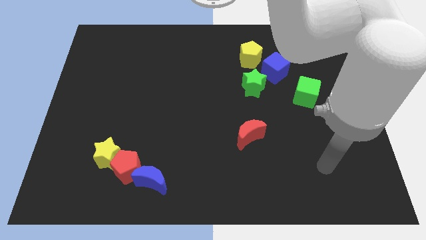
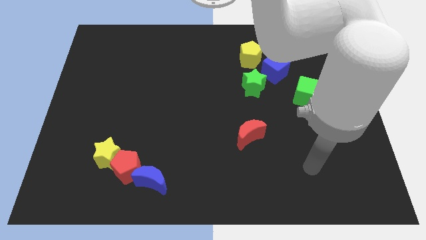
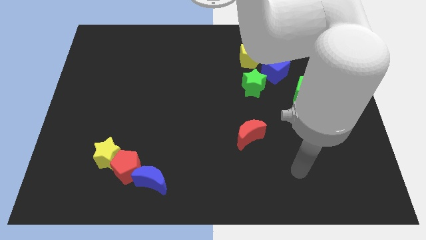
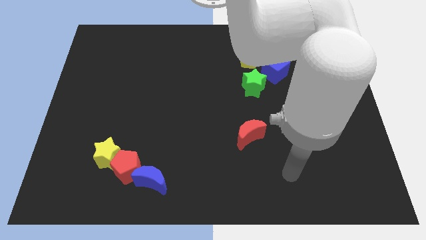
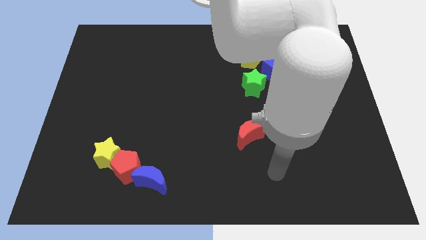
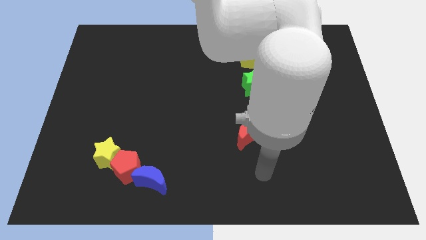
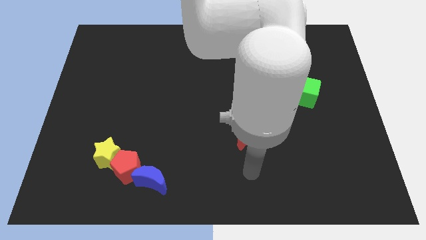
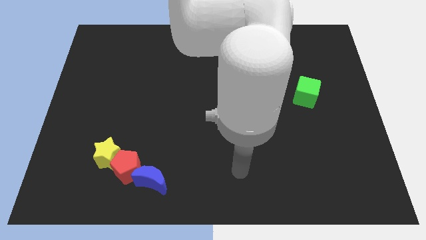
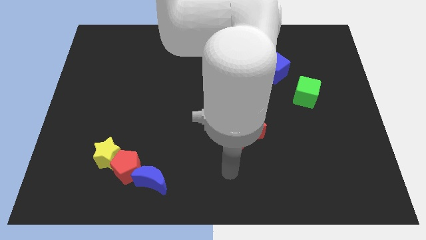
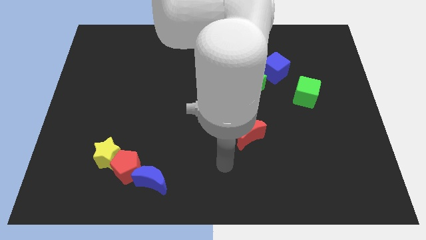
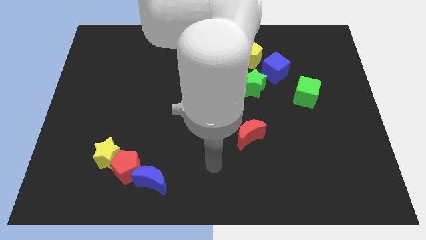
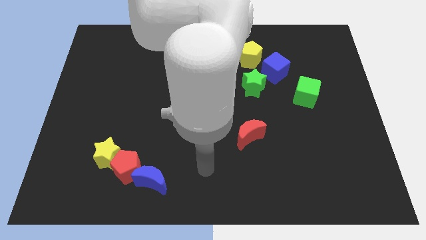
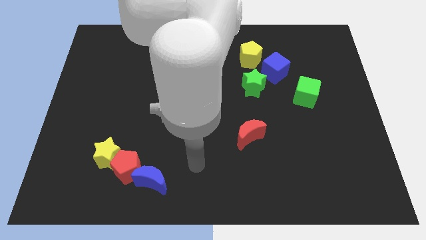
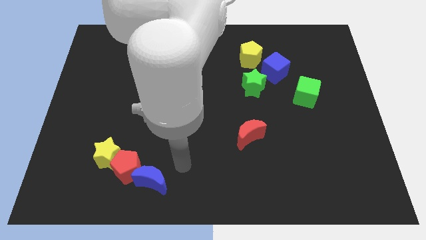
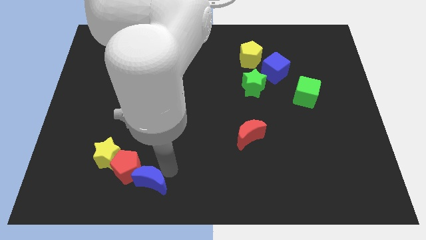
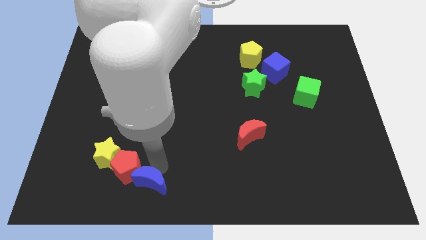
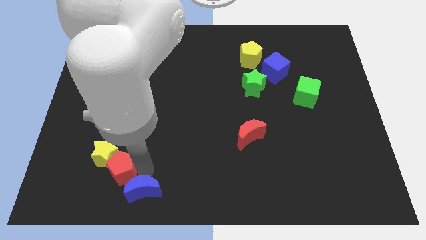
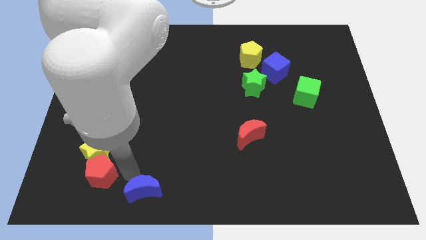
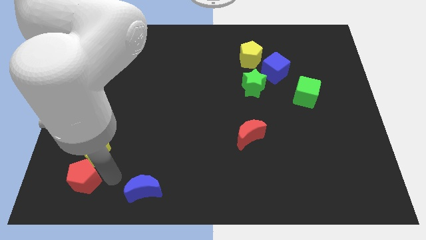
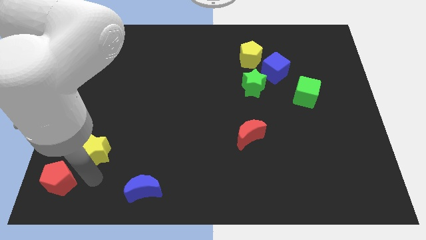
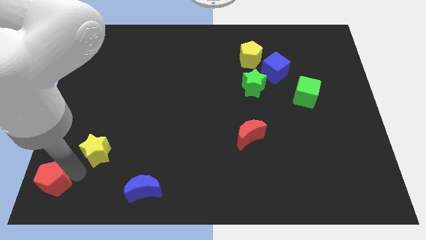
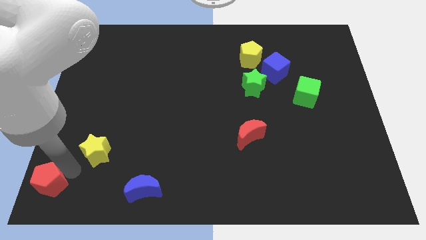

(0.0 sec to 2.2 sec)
move the yellow star away from the red pentagon

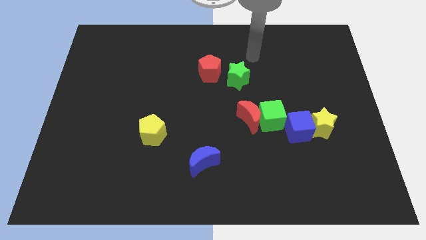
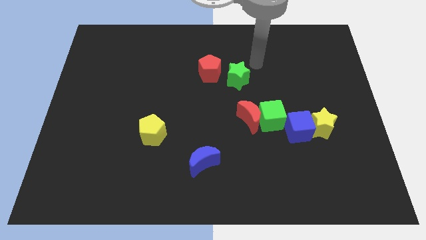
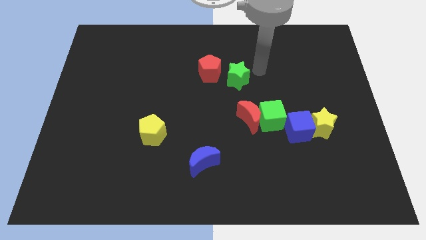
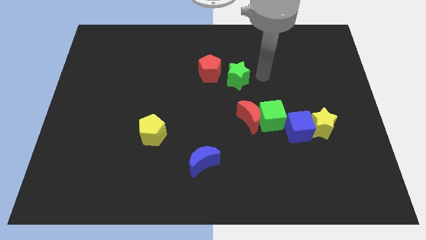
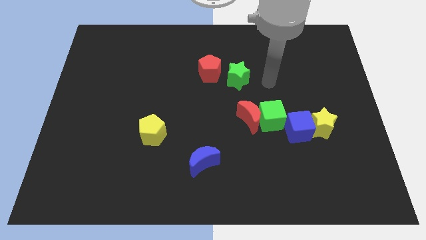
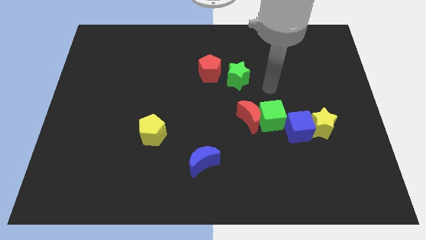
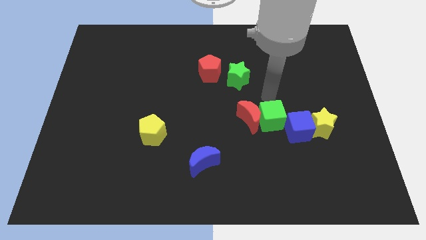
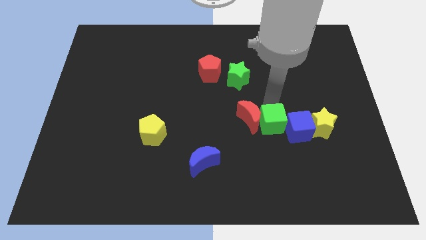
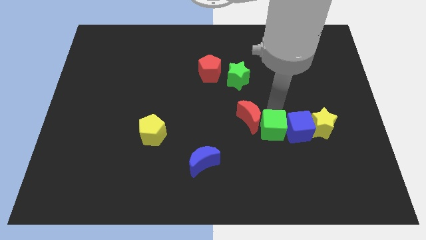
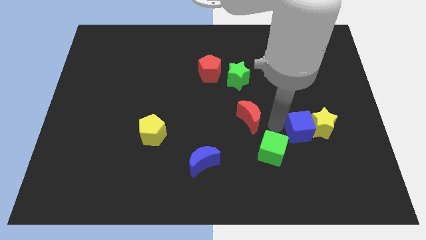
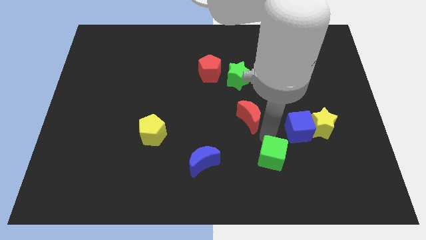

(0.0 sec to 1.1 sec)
separate the red moon from the green cube

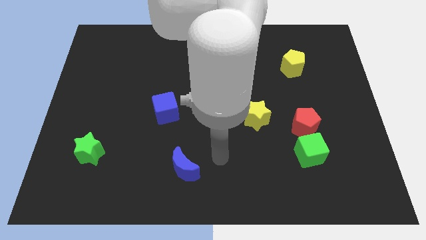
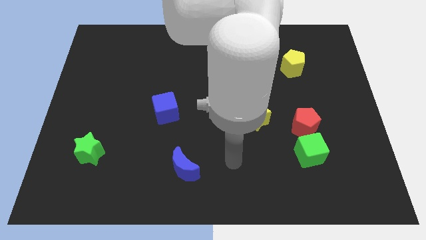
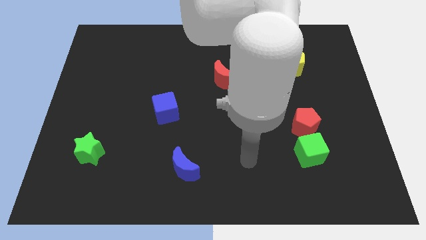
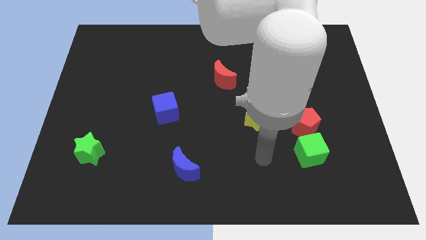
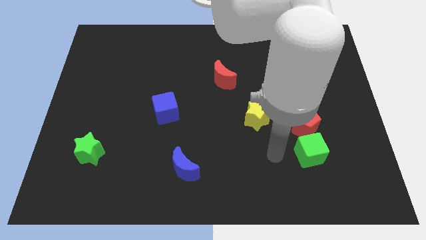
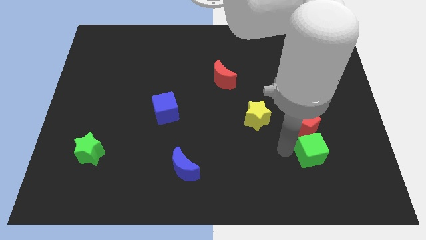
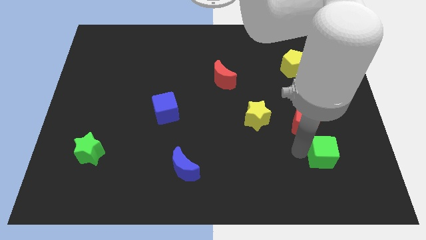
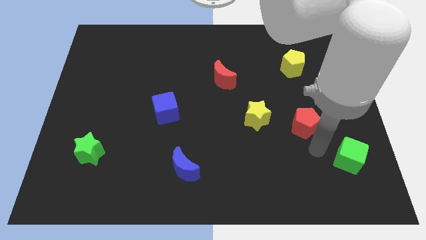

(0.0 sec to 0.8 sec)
separate the red pentagon from the green cube

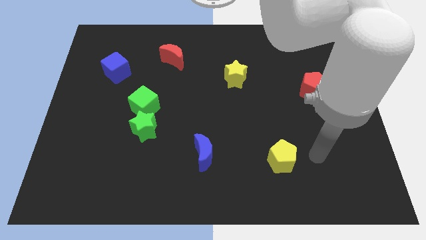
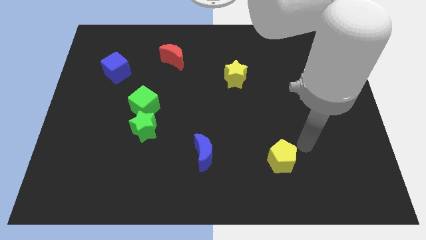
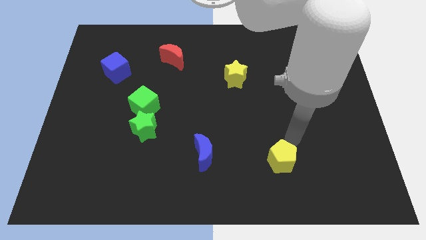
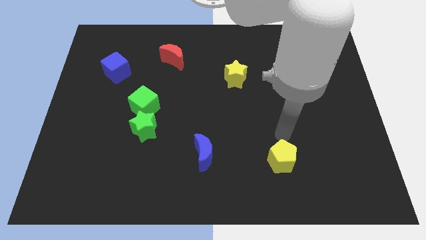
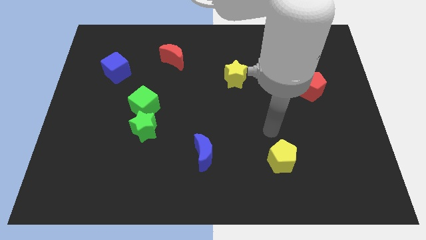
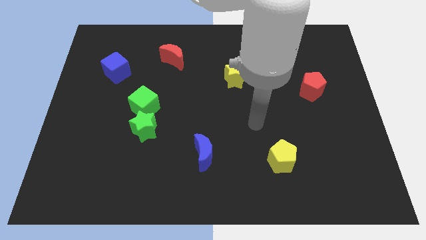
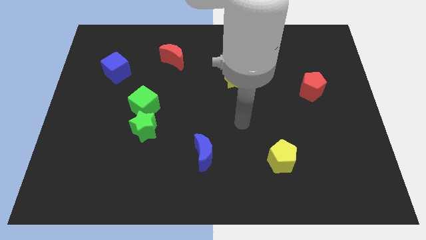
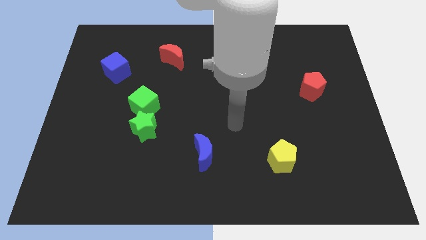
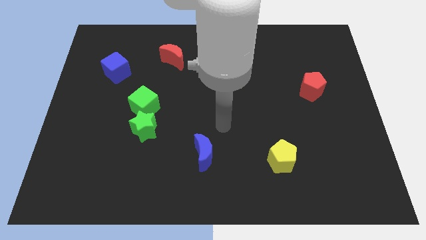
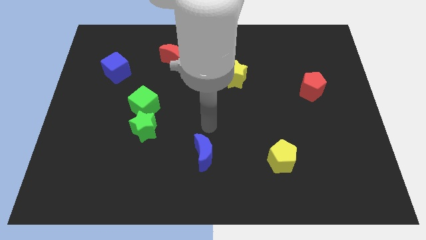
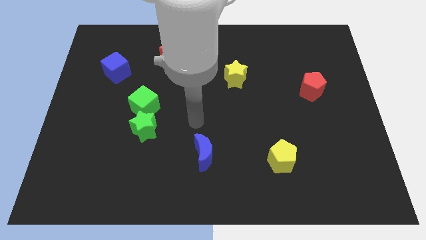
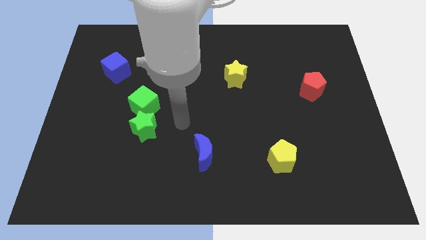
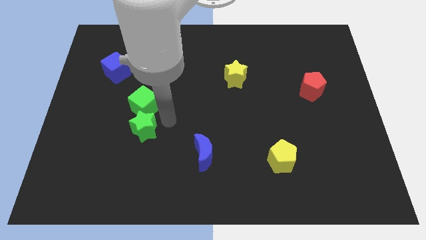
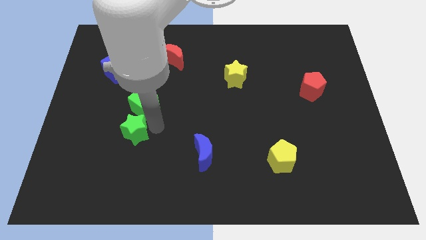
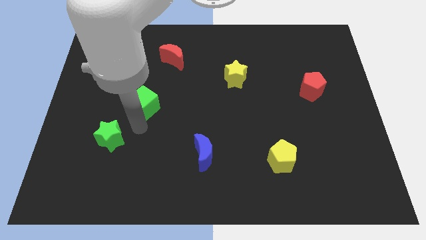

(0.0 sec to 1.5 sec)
move the green cube away from the green star

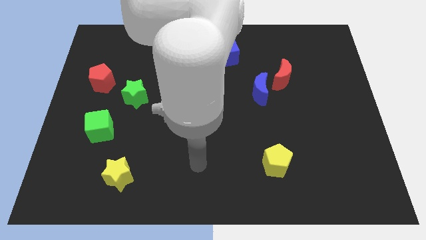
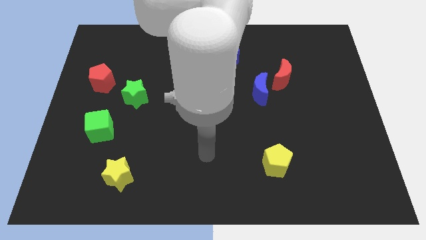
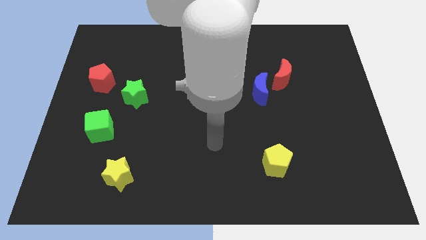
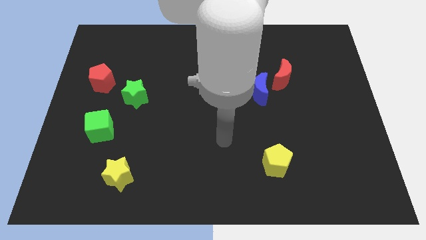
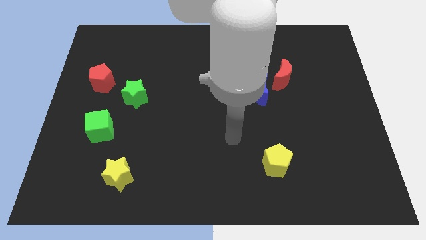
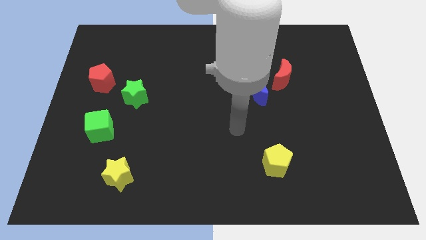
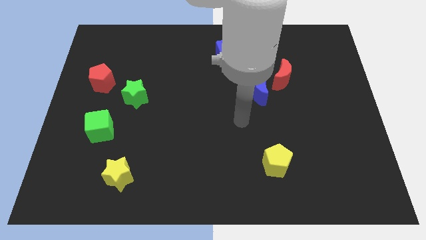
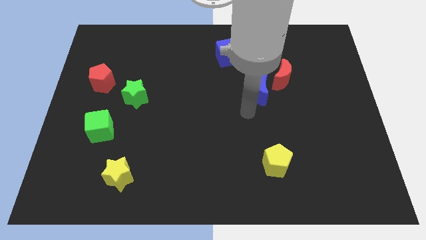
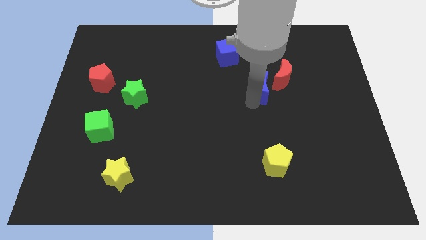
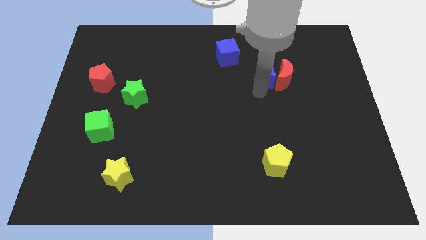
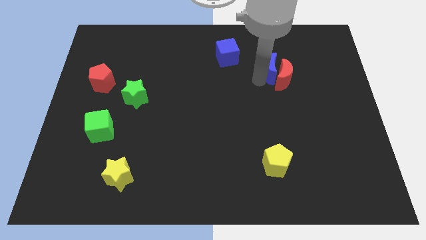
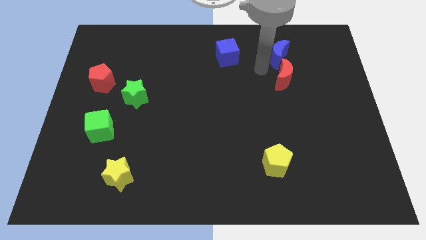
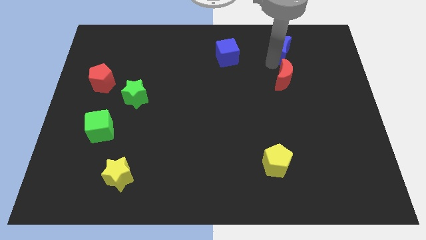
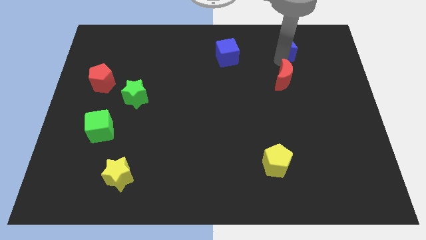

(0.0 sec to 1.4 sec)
pull the red moon apart from the blue moon

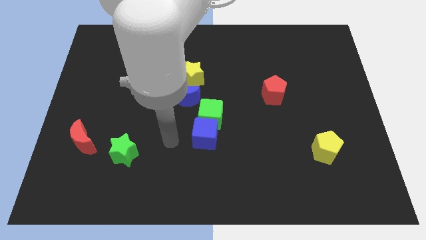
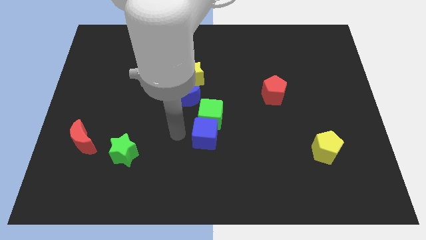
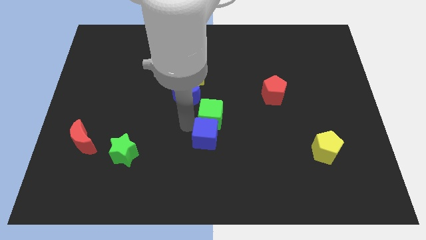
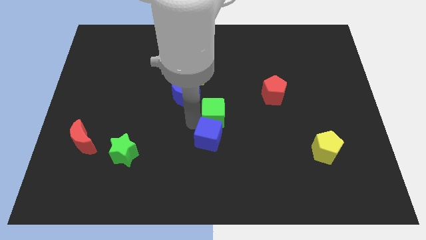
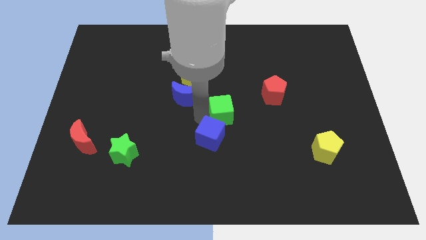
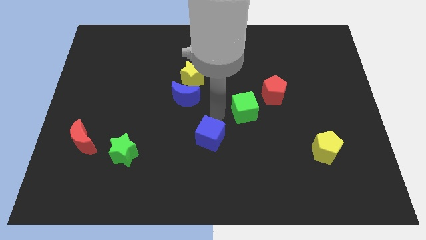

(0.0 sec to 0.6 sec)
separate the blue cube from the green cube

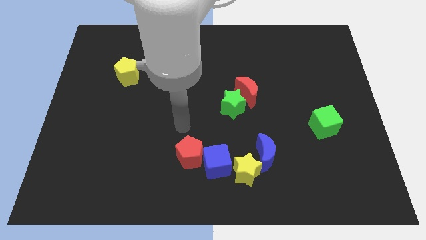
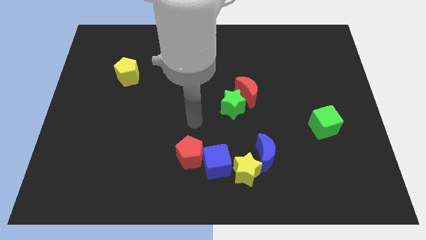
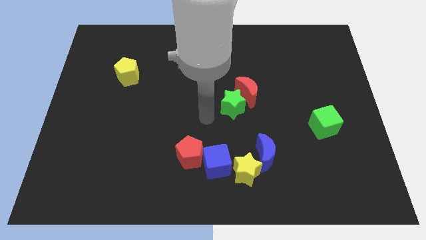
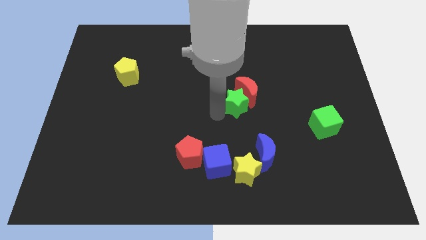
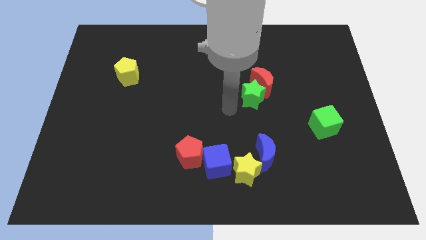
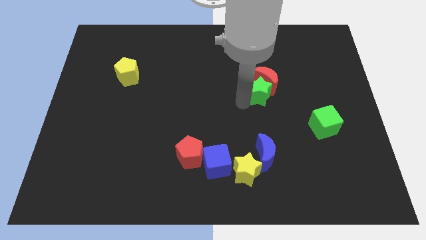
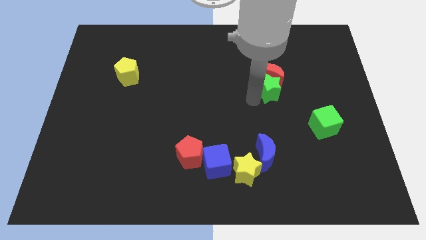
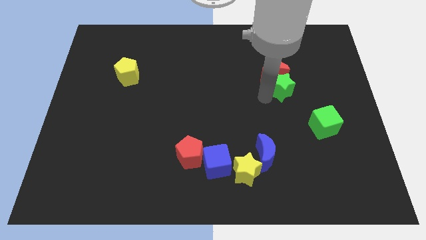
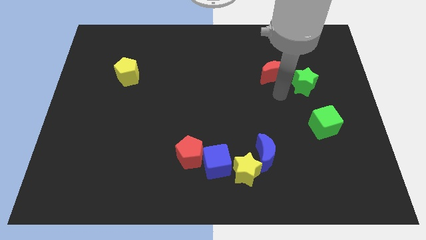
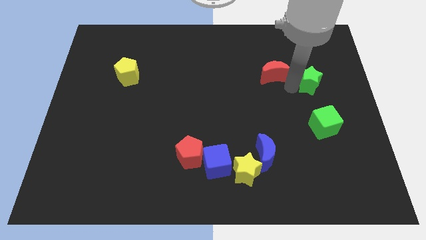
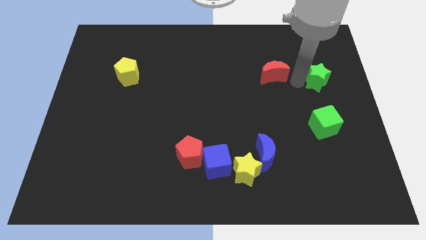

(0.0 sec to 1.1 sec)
separate the red moon from the green star

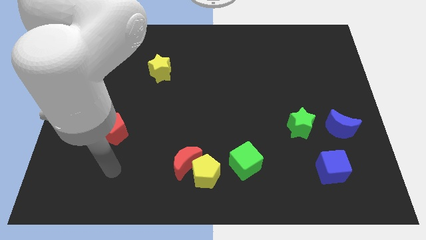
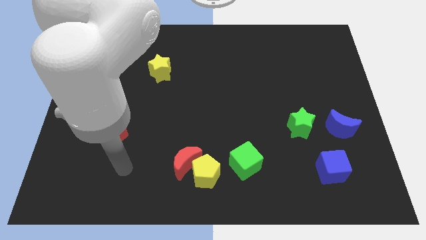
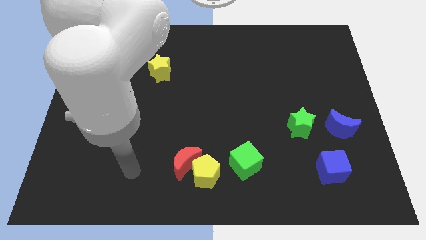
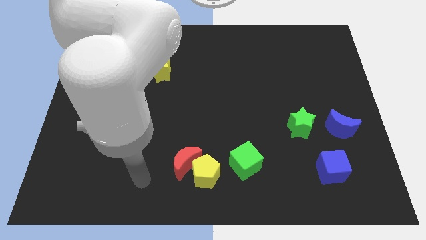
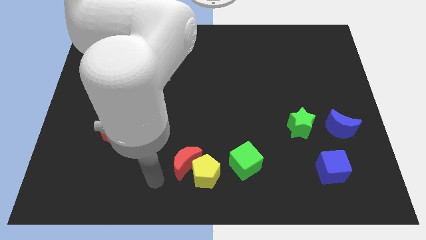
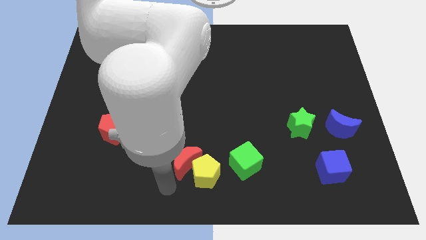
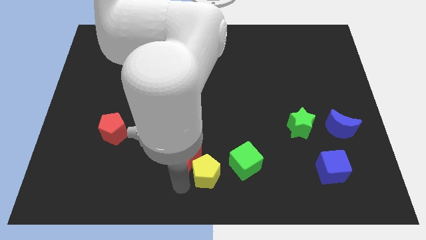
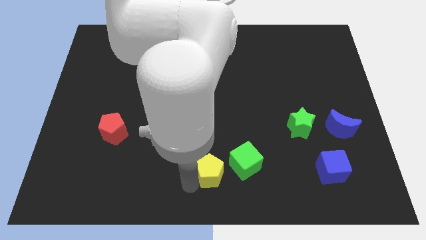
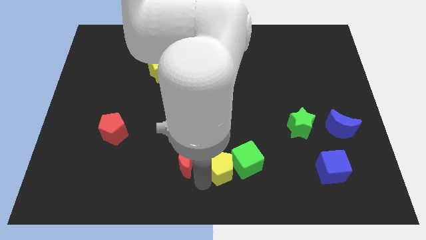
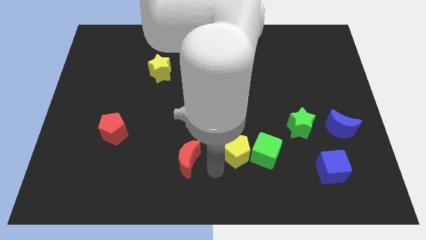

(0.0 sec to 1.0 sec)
move the red moon away from the yellow pentagon
